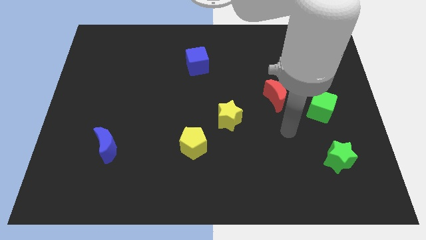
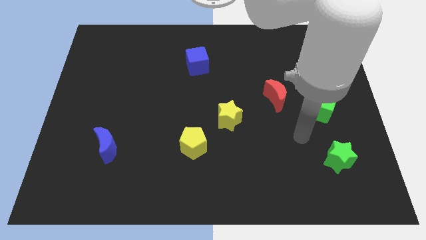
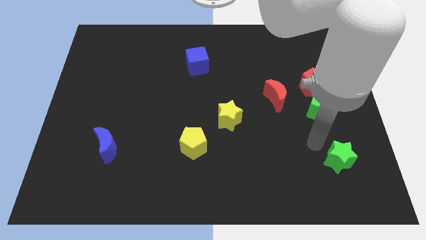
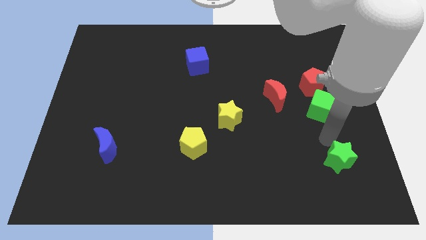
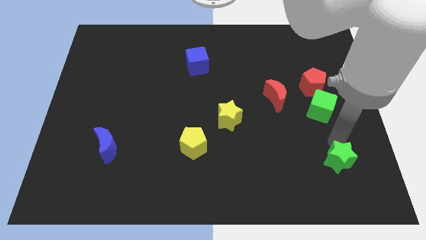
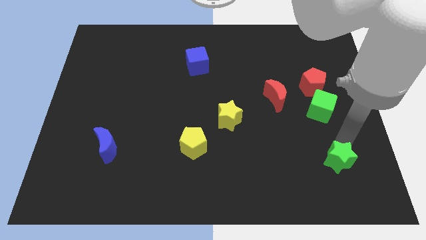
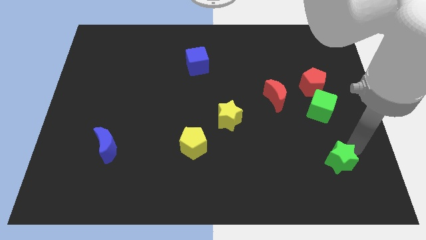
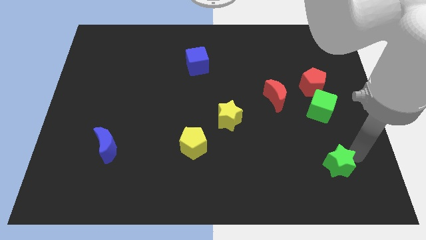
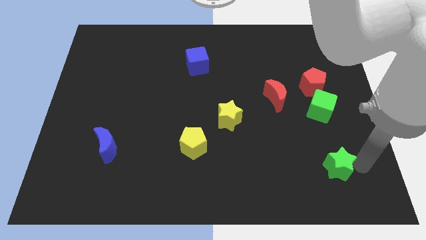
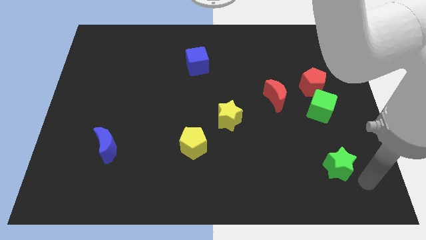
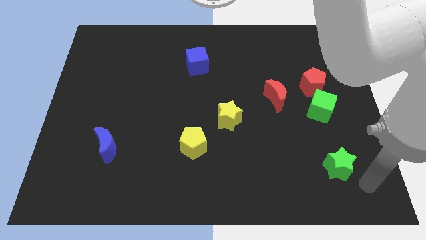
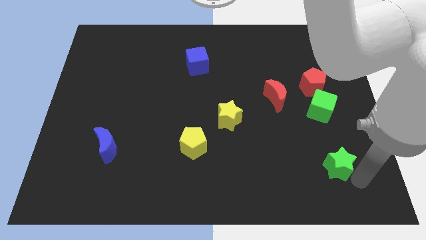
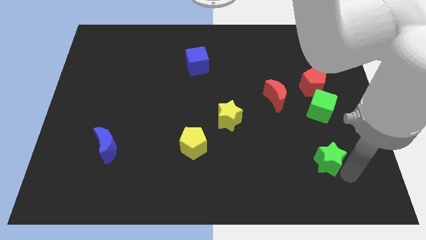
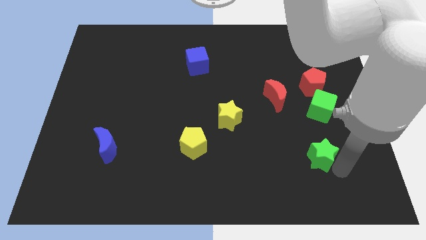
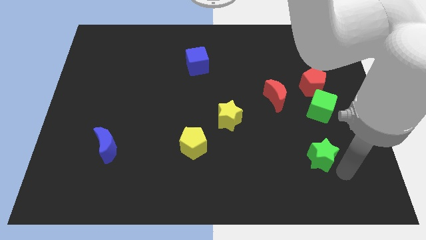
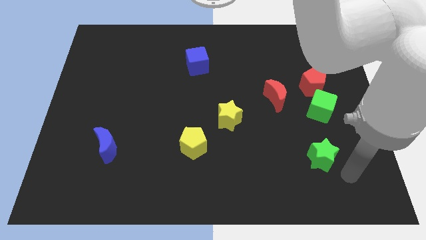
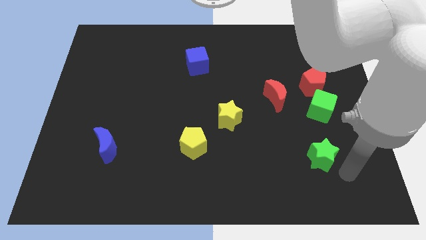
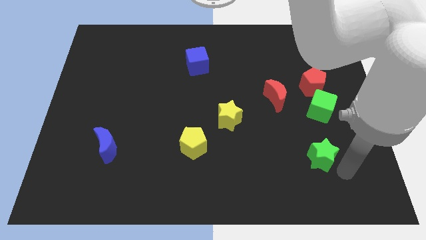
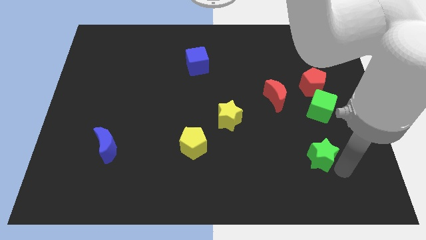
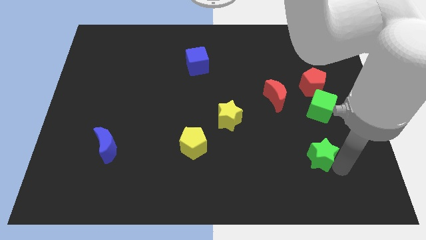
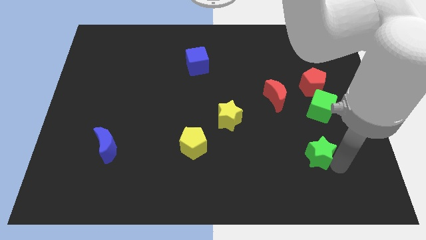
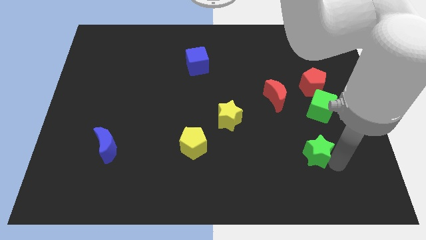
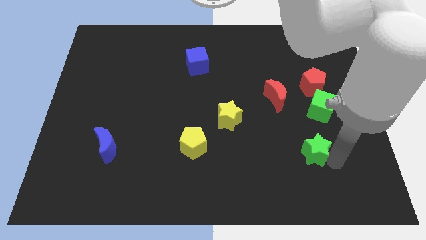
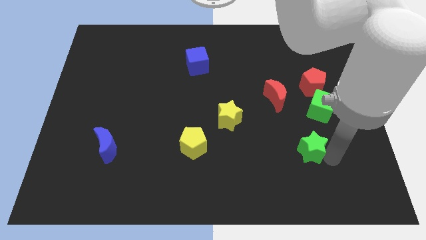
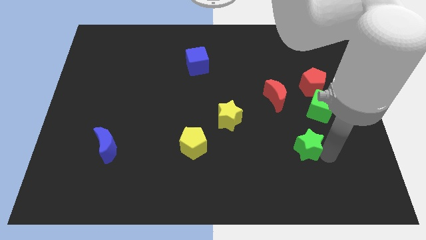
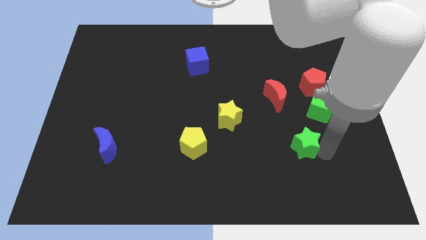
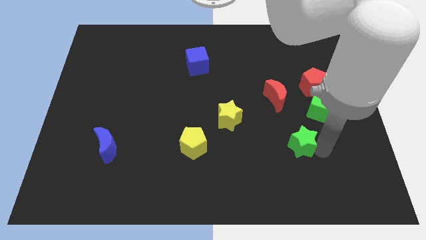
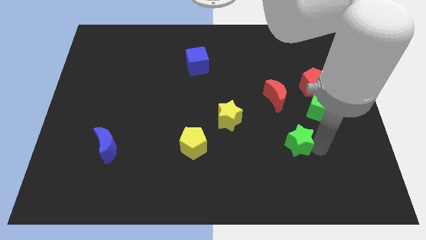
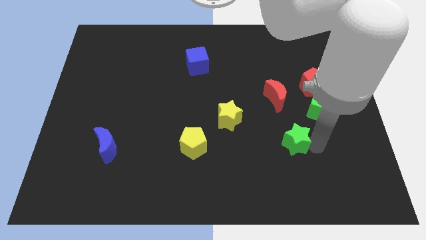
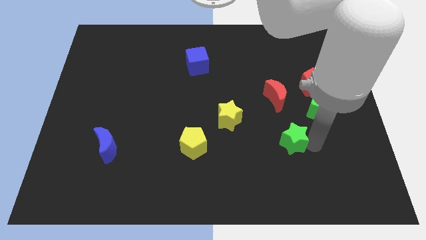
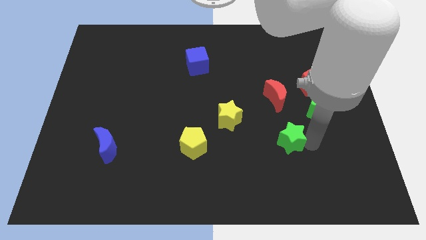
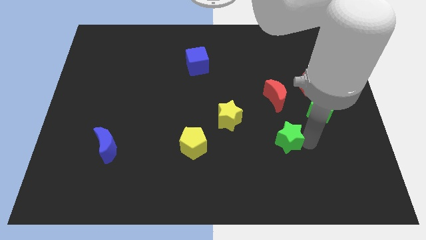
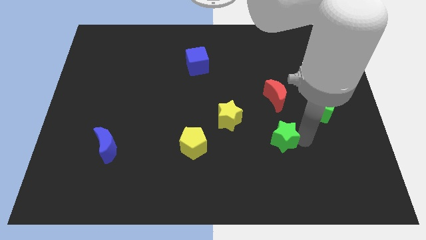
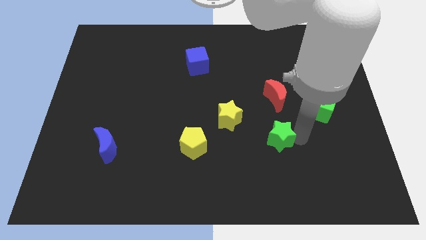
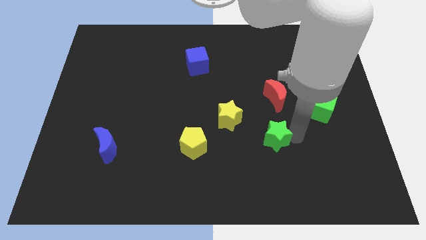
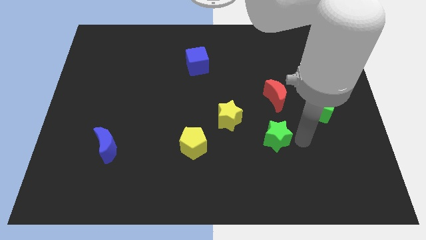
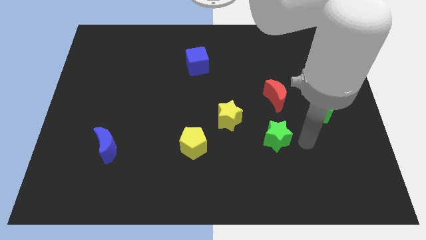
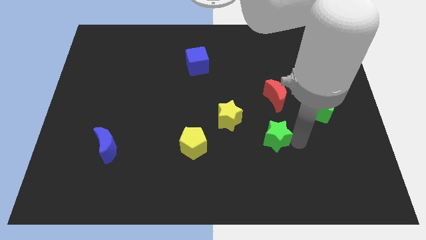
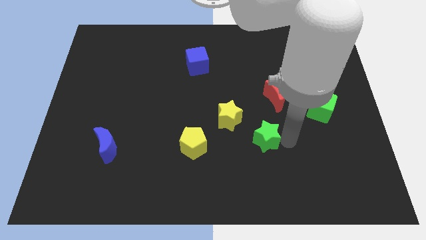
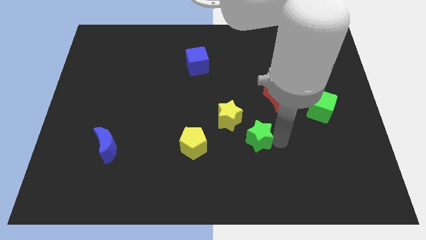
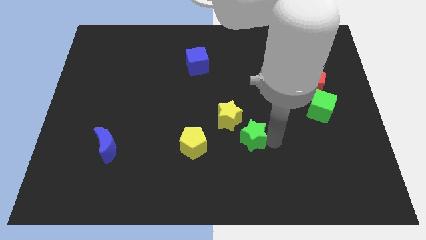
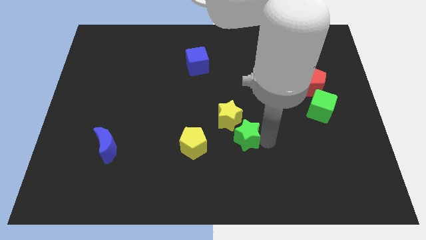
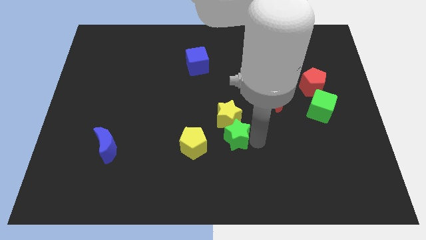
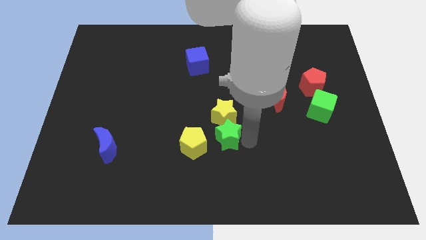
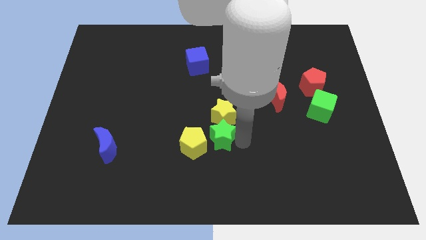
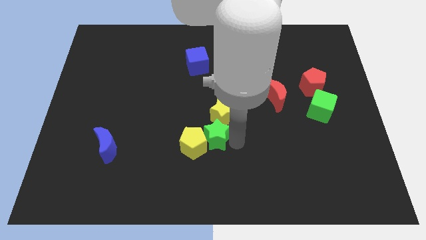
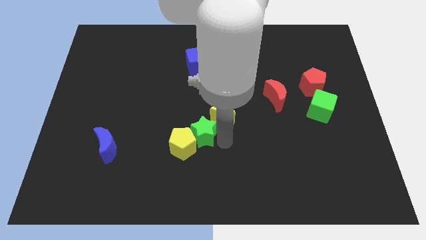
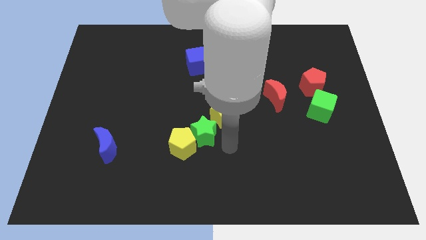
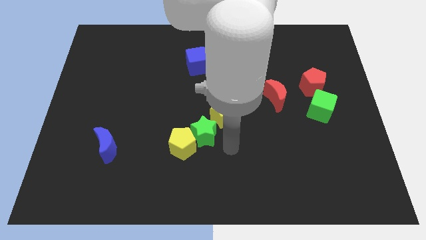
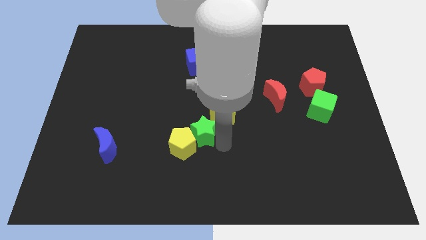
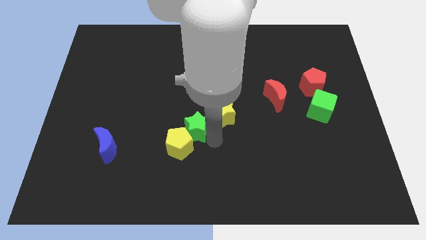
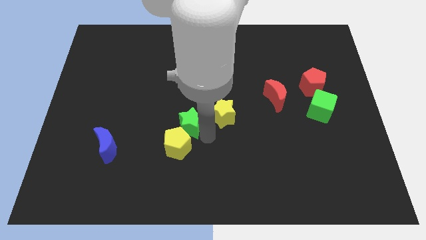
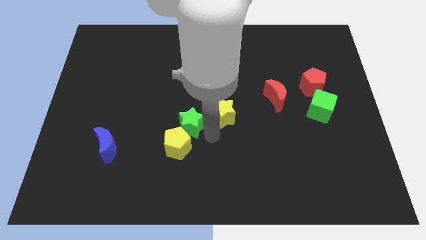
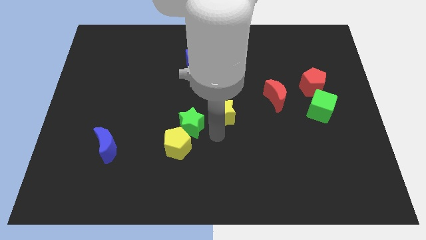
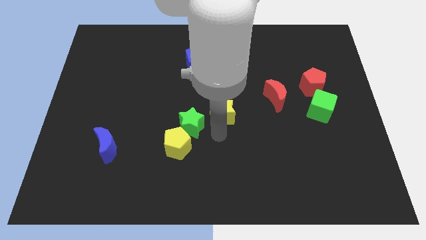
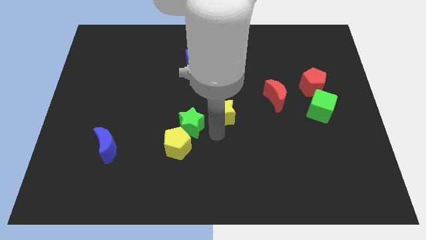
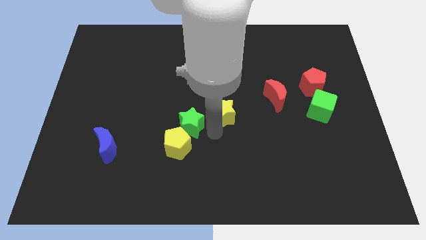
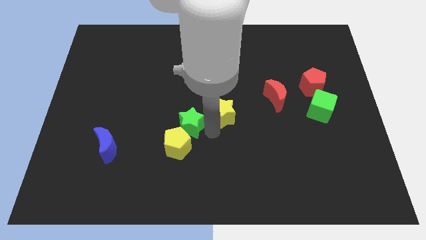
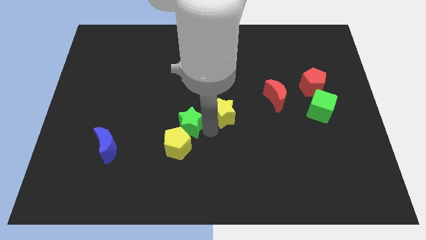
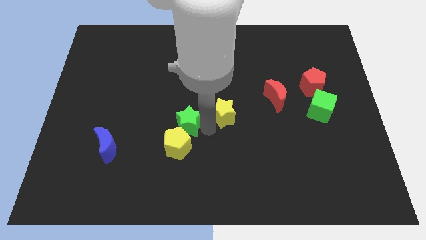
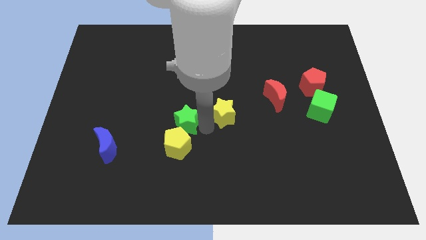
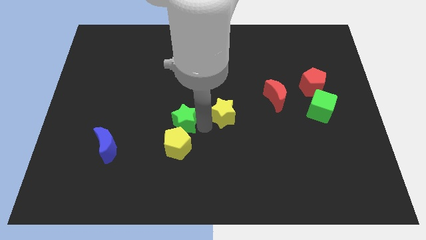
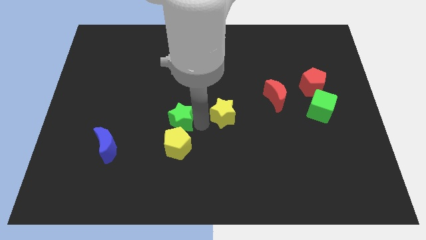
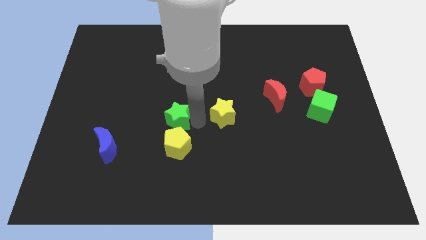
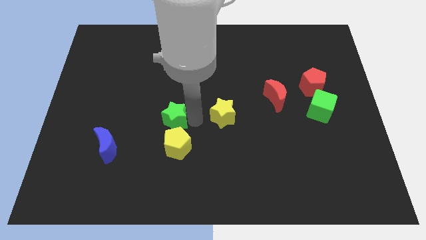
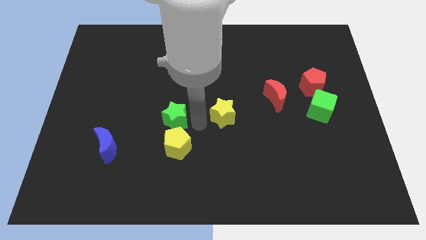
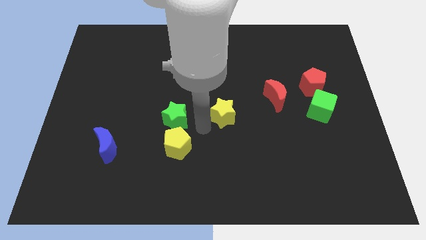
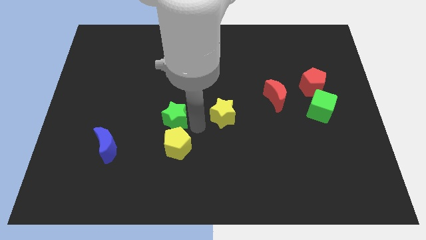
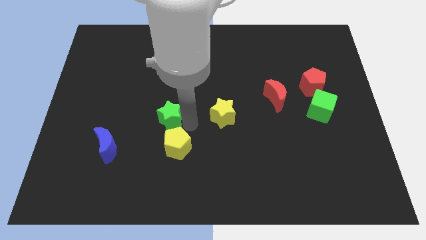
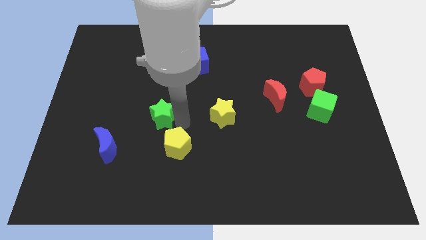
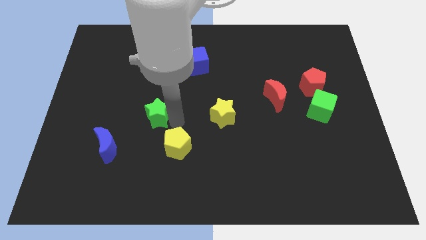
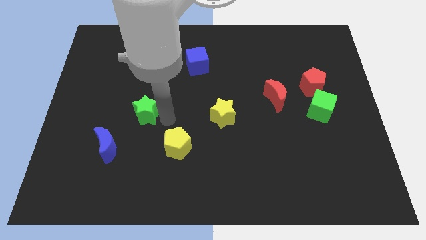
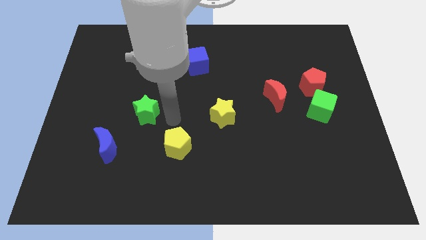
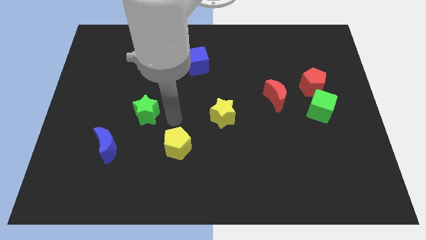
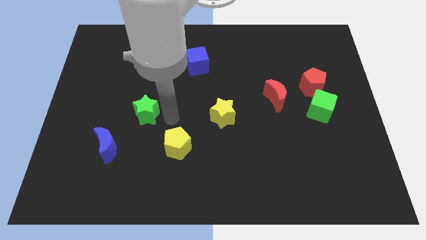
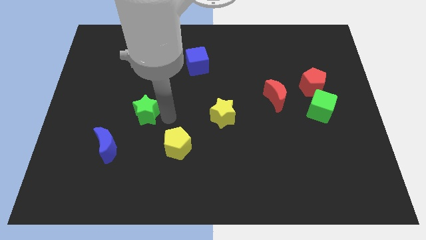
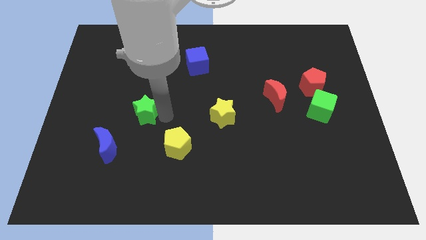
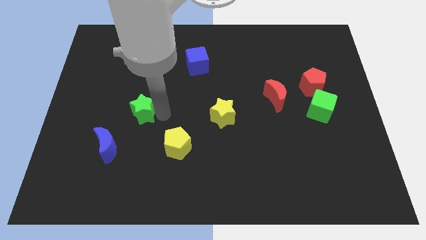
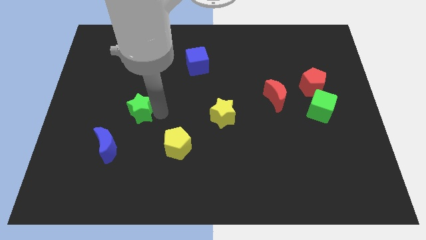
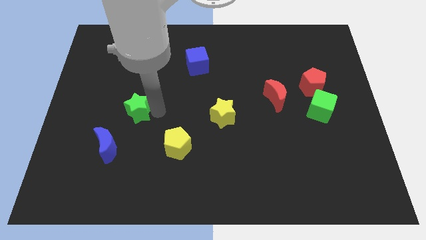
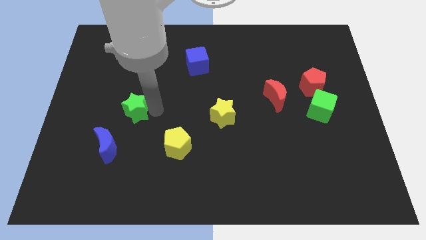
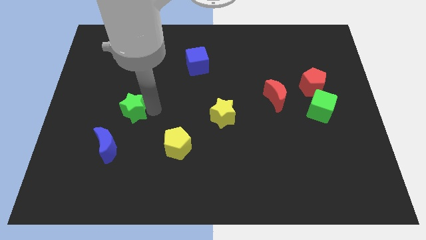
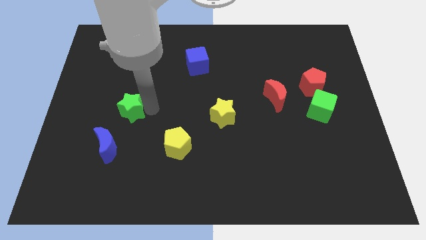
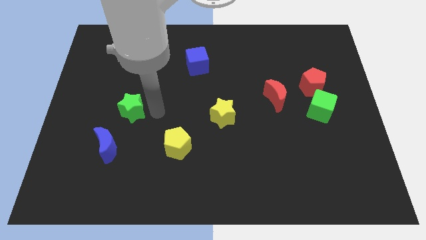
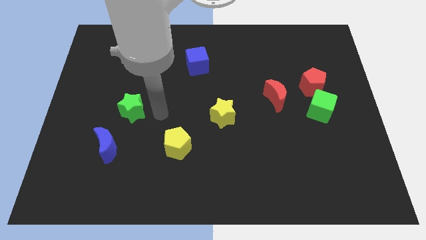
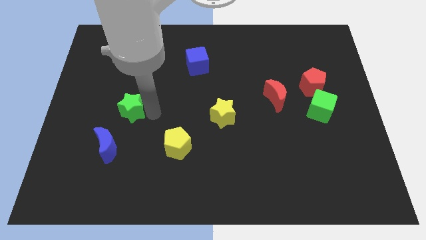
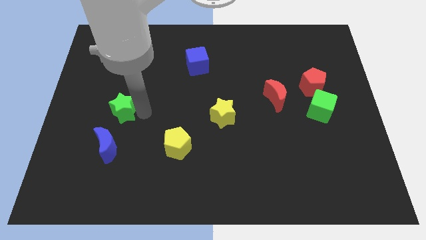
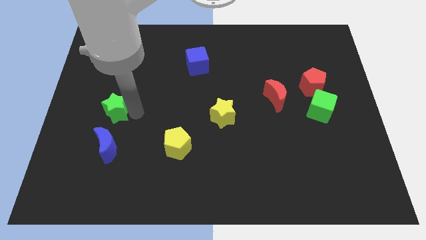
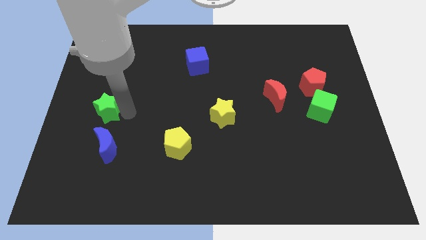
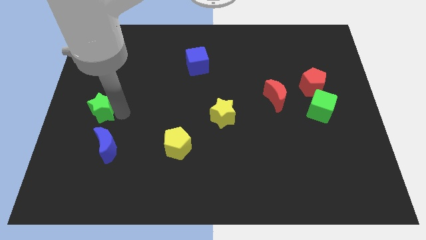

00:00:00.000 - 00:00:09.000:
push the green star to the left side
